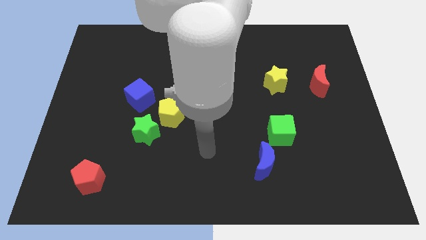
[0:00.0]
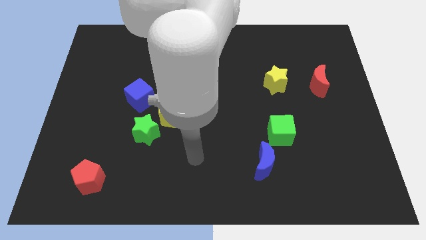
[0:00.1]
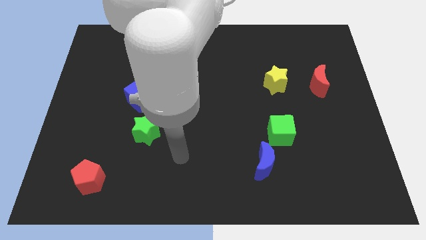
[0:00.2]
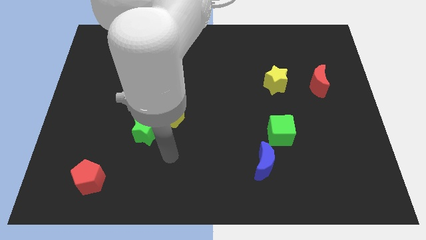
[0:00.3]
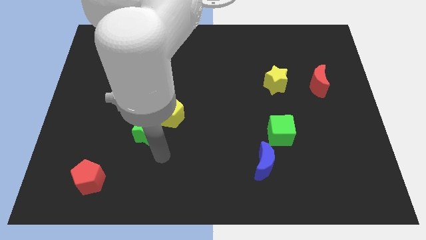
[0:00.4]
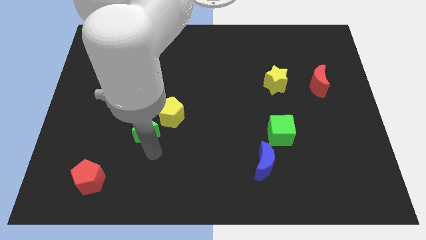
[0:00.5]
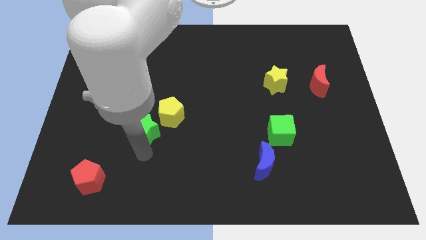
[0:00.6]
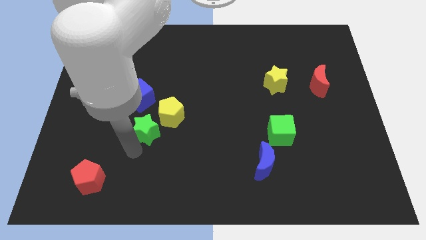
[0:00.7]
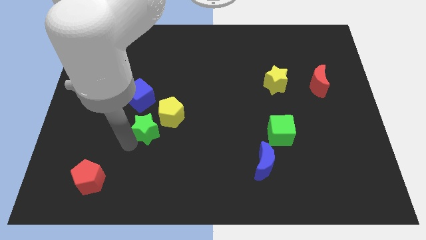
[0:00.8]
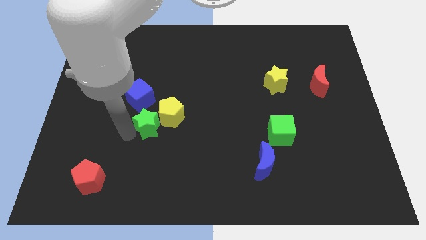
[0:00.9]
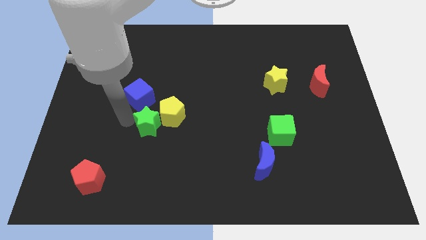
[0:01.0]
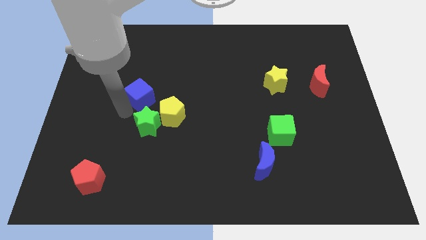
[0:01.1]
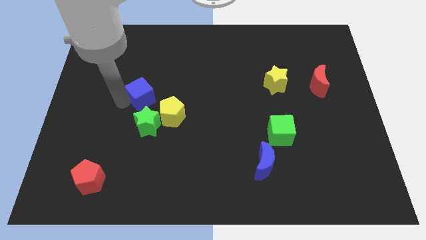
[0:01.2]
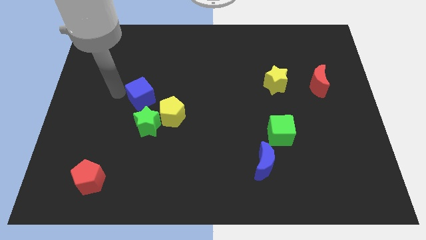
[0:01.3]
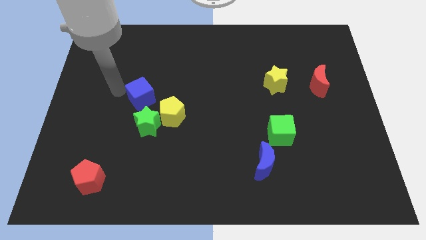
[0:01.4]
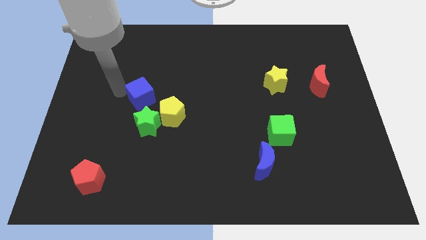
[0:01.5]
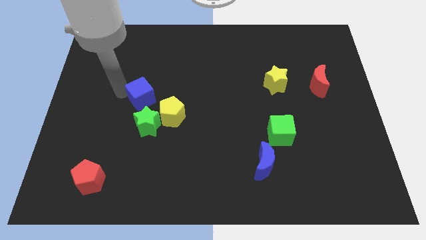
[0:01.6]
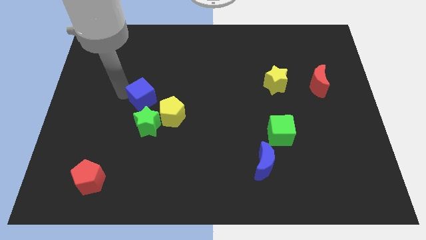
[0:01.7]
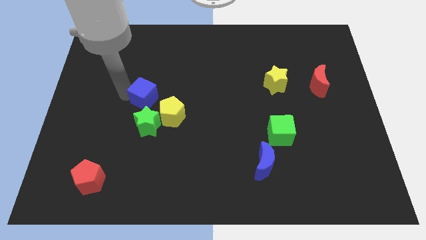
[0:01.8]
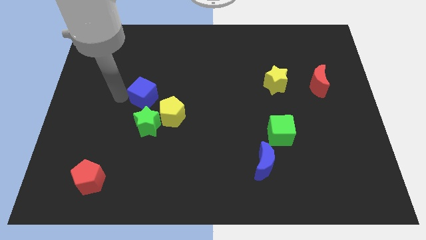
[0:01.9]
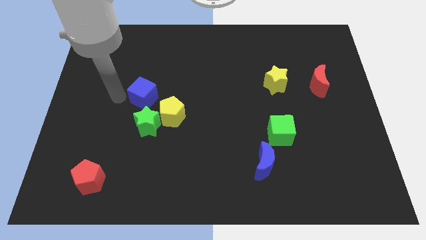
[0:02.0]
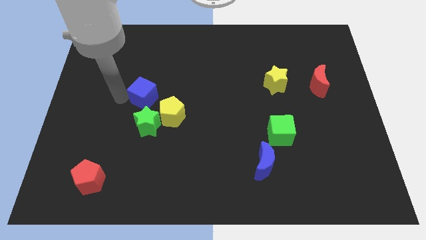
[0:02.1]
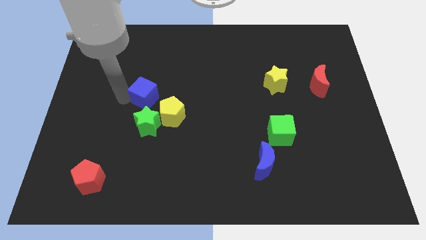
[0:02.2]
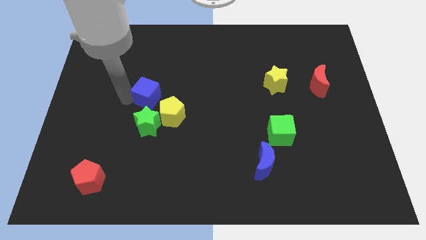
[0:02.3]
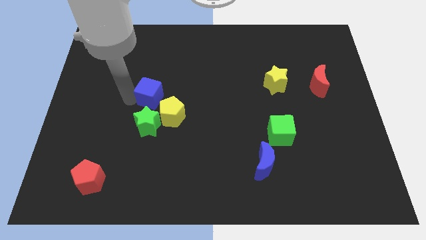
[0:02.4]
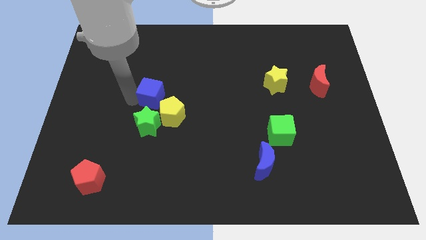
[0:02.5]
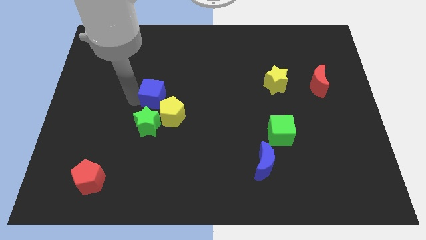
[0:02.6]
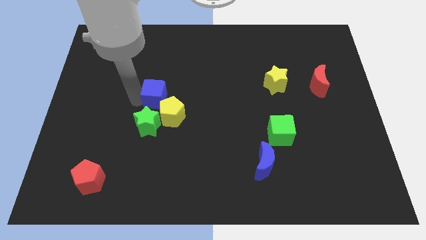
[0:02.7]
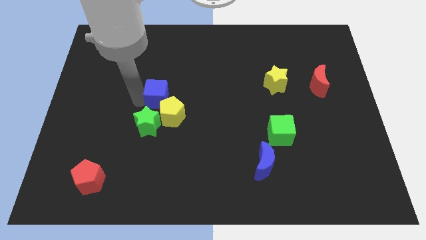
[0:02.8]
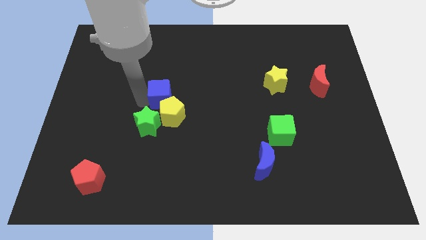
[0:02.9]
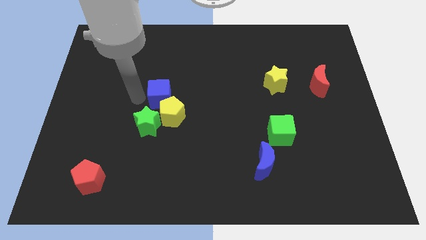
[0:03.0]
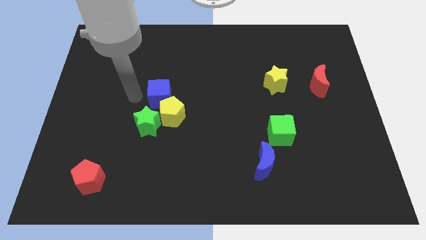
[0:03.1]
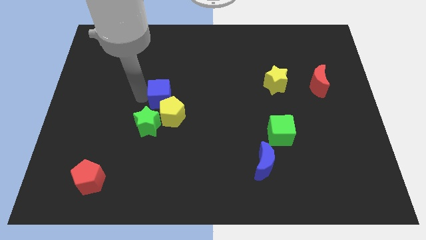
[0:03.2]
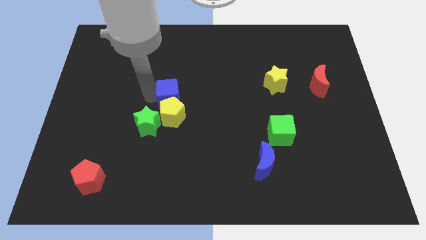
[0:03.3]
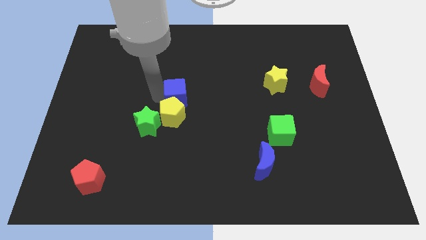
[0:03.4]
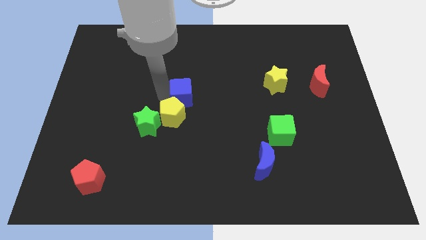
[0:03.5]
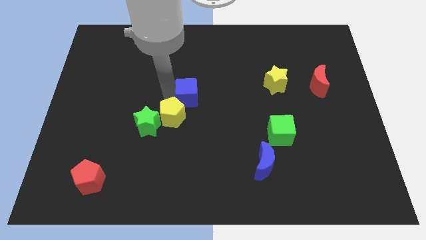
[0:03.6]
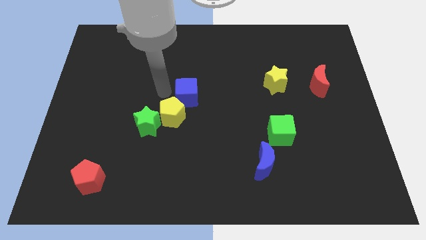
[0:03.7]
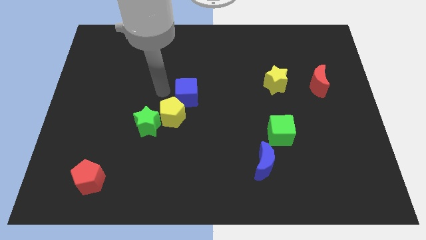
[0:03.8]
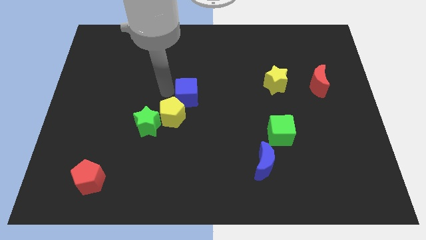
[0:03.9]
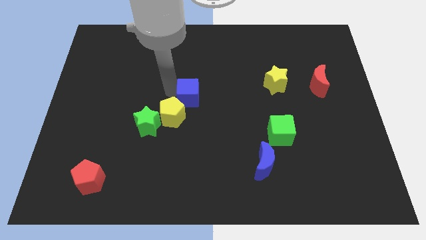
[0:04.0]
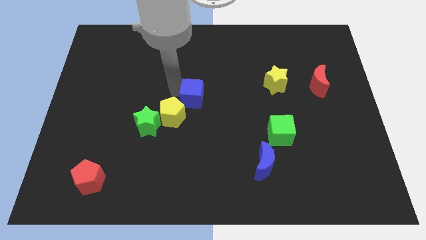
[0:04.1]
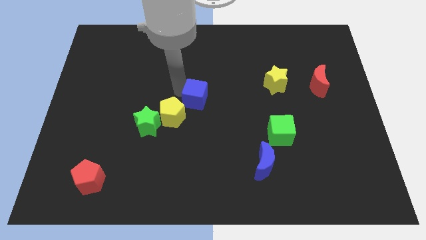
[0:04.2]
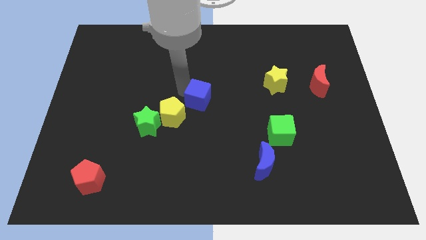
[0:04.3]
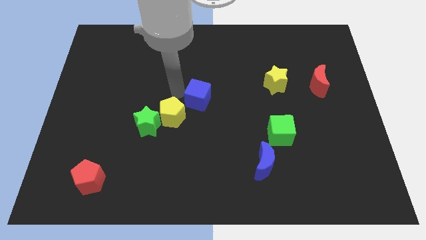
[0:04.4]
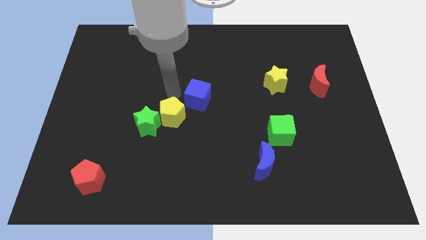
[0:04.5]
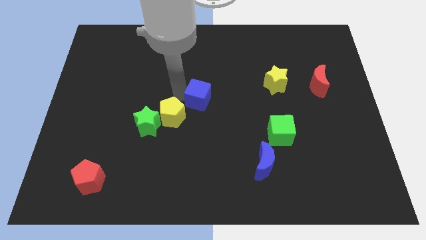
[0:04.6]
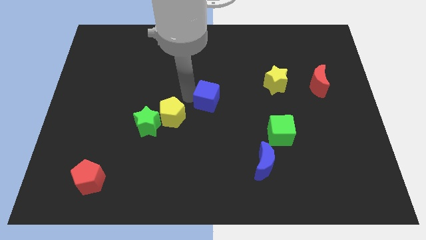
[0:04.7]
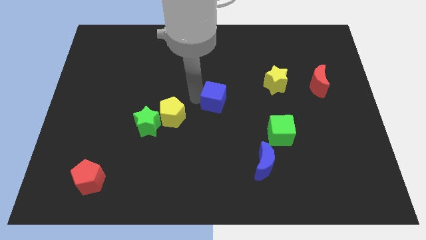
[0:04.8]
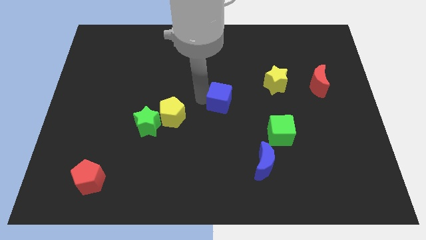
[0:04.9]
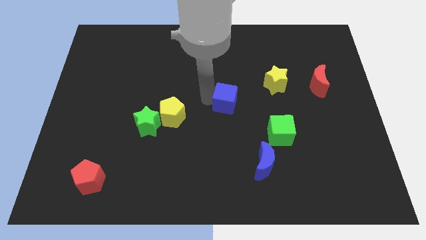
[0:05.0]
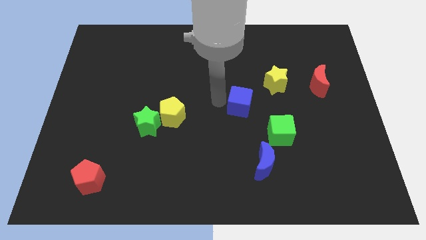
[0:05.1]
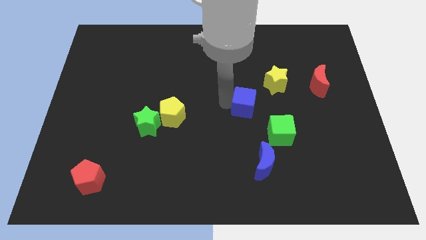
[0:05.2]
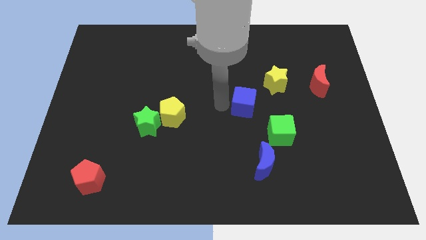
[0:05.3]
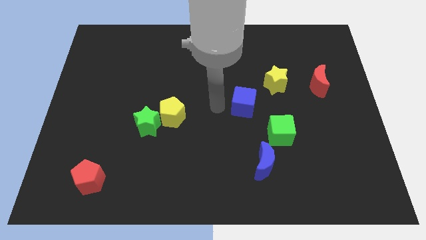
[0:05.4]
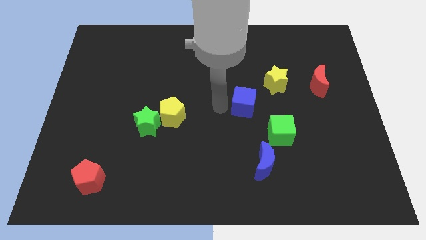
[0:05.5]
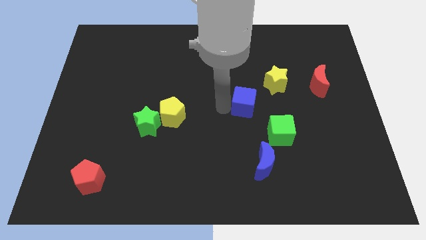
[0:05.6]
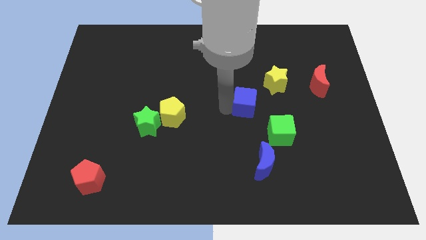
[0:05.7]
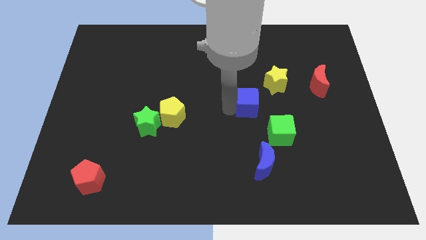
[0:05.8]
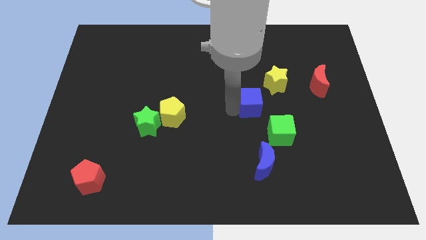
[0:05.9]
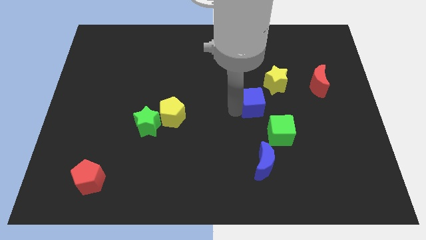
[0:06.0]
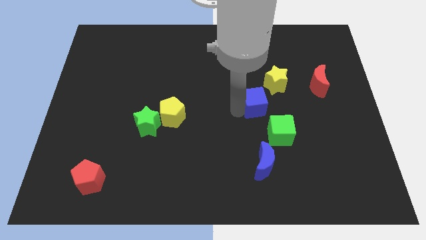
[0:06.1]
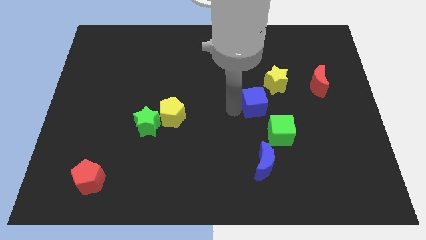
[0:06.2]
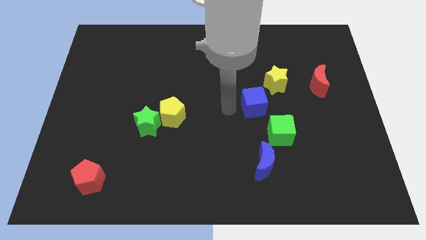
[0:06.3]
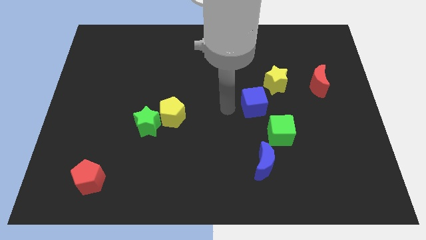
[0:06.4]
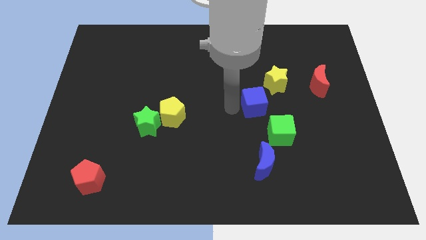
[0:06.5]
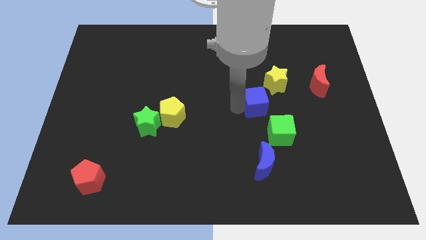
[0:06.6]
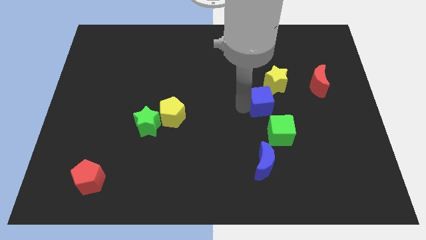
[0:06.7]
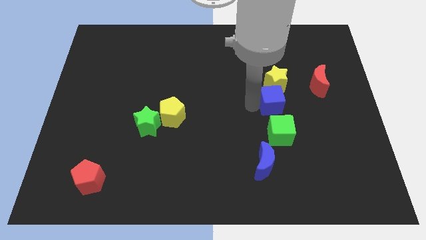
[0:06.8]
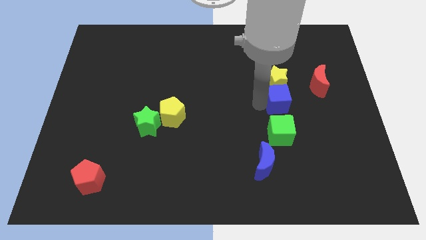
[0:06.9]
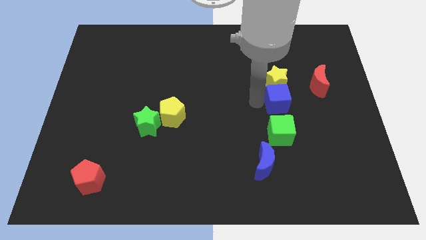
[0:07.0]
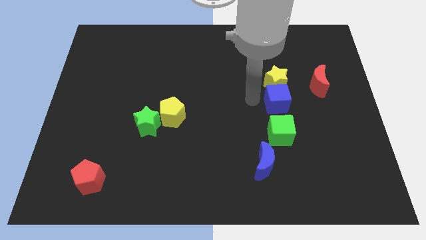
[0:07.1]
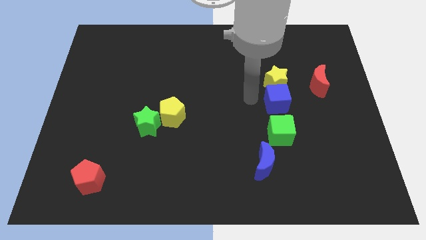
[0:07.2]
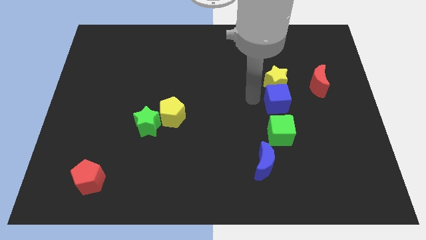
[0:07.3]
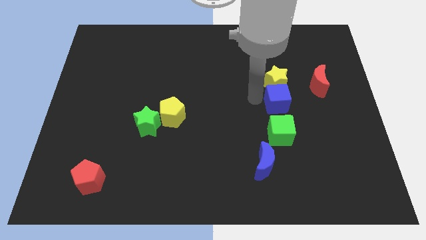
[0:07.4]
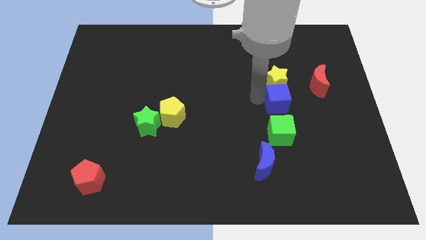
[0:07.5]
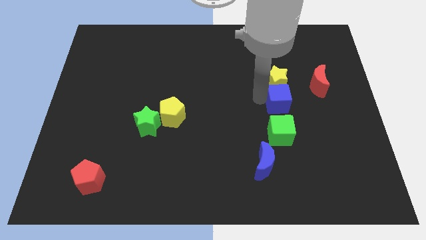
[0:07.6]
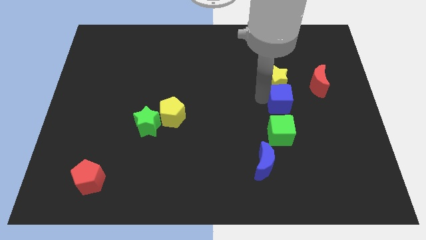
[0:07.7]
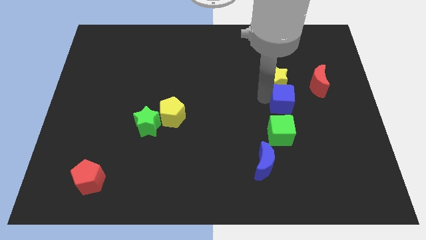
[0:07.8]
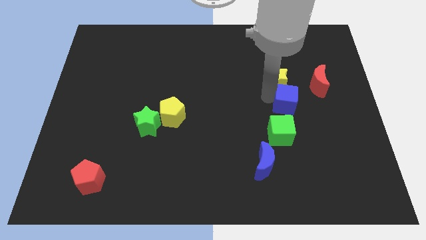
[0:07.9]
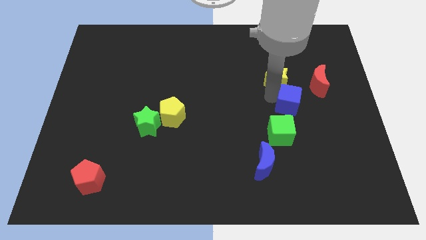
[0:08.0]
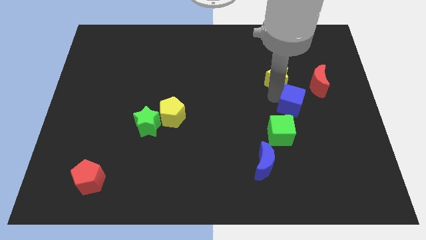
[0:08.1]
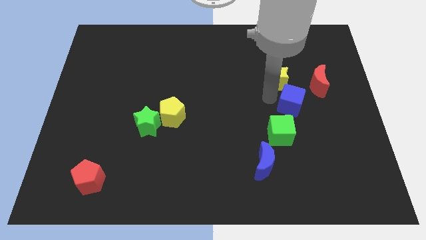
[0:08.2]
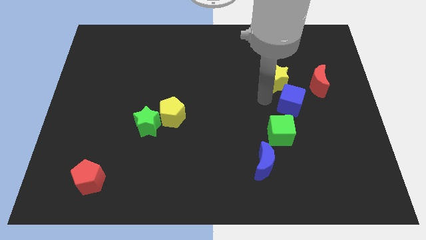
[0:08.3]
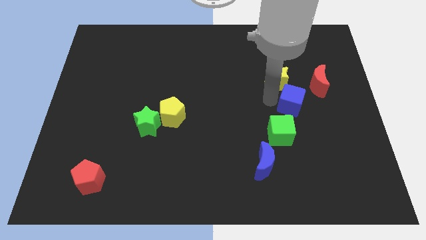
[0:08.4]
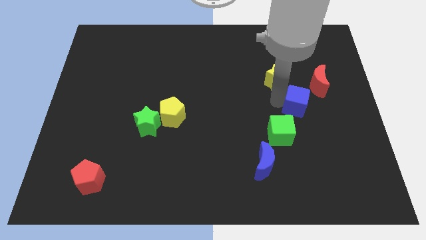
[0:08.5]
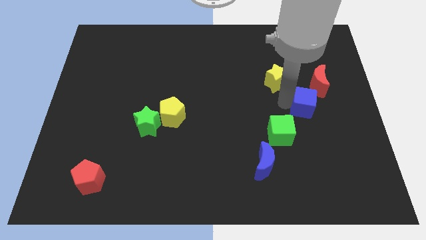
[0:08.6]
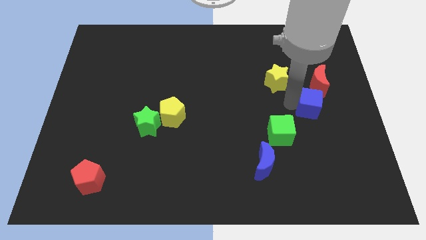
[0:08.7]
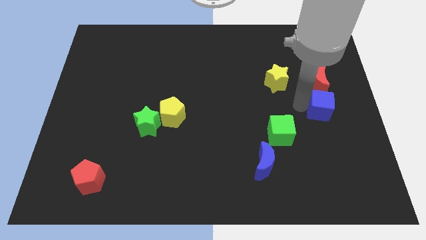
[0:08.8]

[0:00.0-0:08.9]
slide the blue cube to the right side
